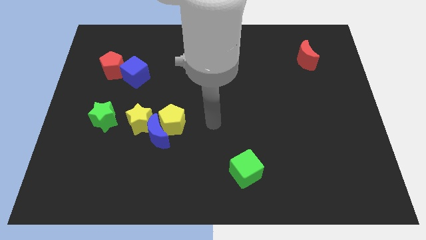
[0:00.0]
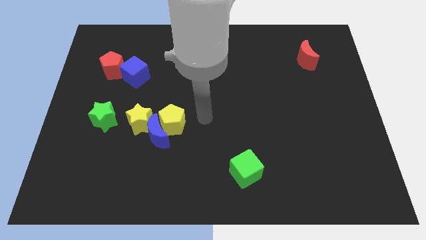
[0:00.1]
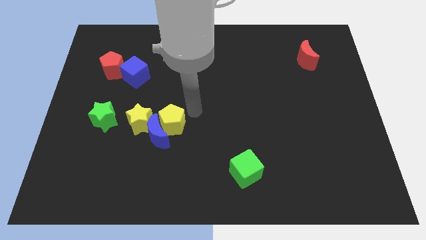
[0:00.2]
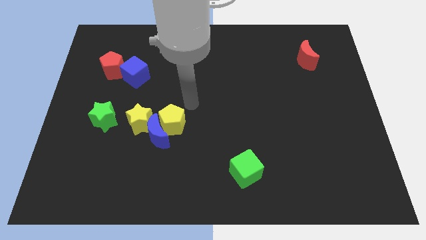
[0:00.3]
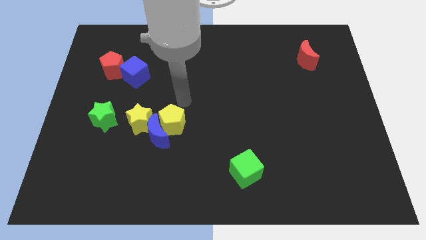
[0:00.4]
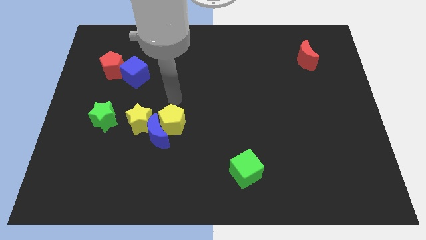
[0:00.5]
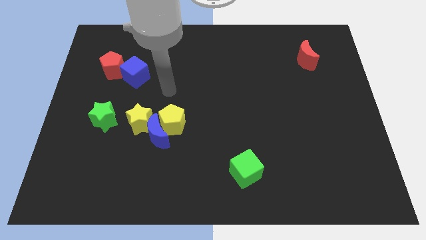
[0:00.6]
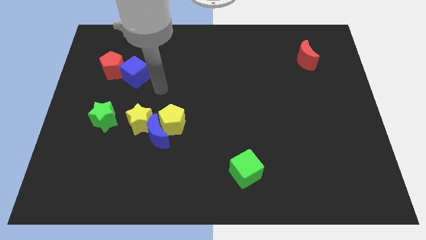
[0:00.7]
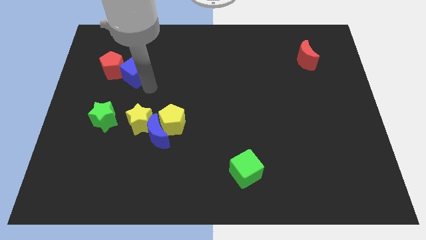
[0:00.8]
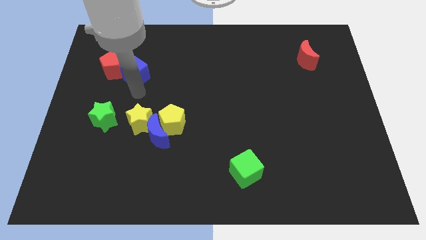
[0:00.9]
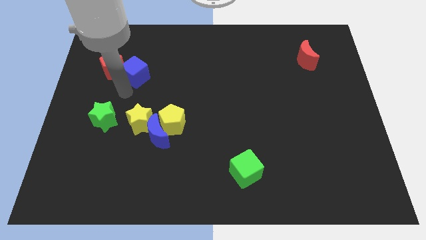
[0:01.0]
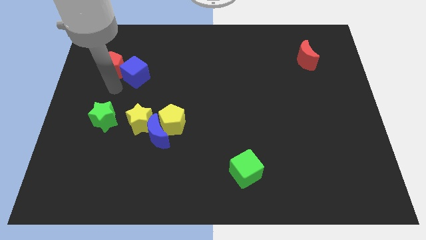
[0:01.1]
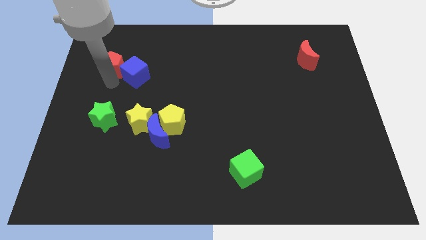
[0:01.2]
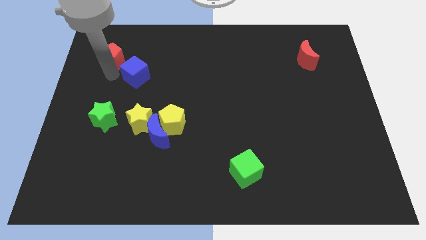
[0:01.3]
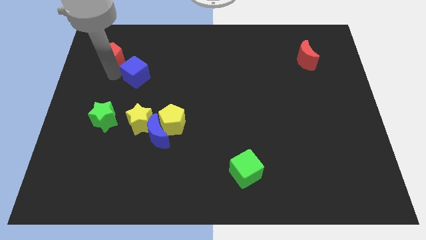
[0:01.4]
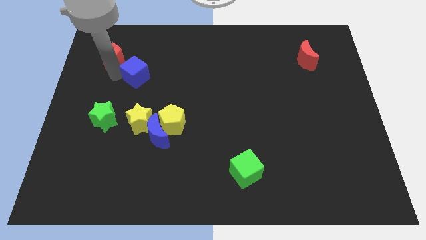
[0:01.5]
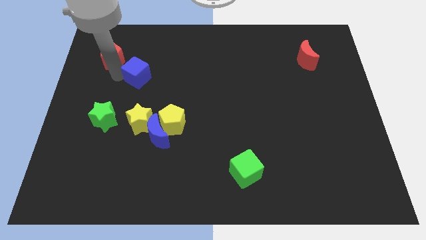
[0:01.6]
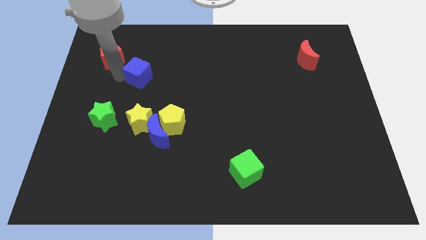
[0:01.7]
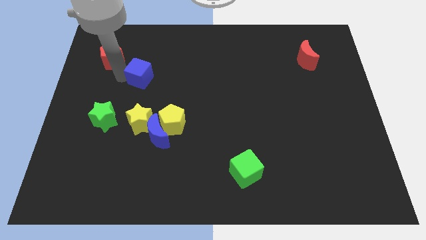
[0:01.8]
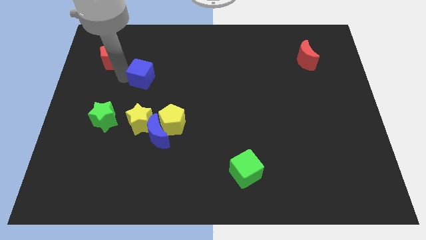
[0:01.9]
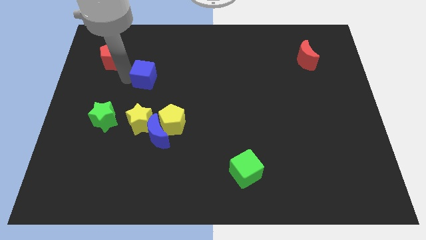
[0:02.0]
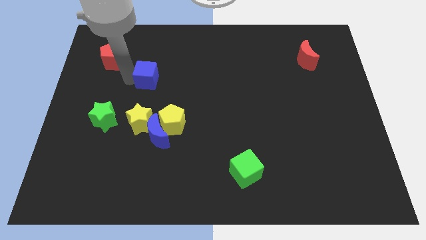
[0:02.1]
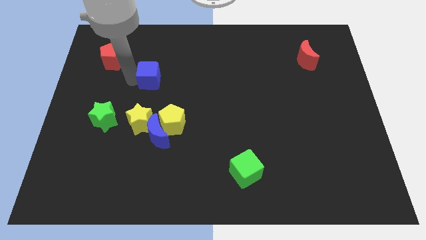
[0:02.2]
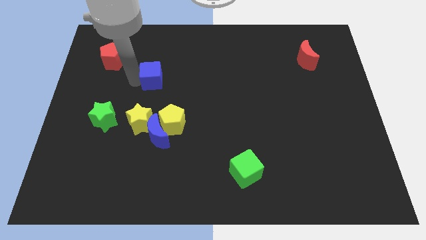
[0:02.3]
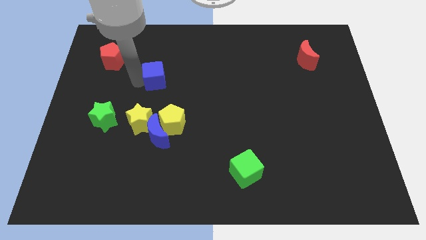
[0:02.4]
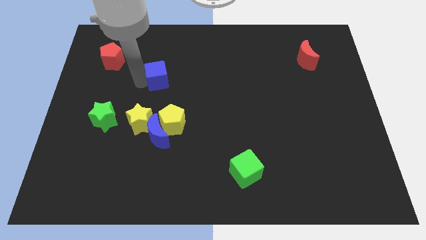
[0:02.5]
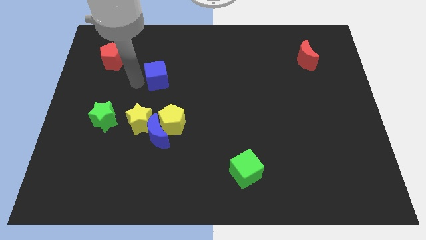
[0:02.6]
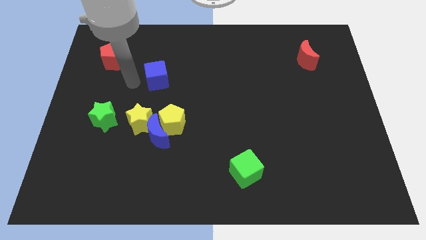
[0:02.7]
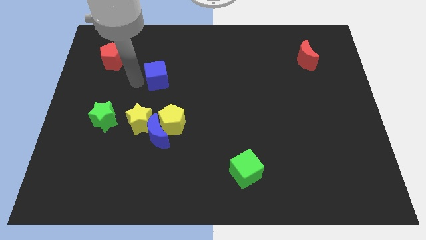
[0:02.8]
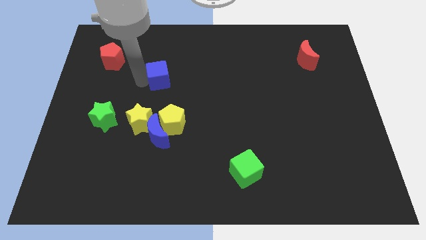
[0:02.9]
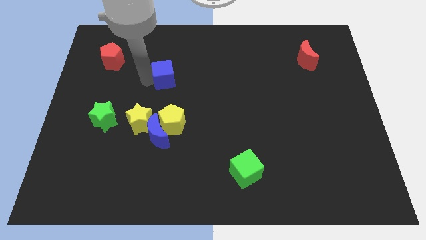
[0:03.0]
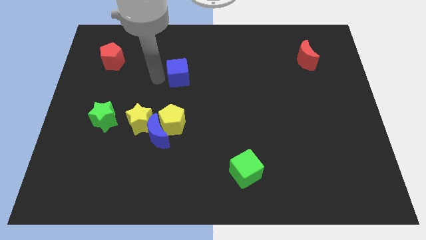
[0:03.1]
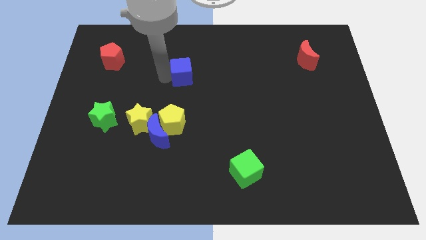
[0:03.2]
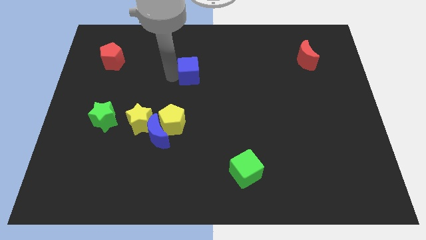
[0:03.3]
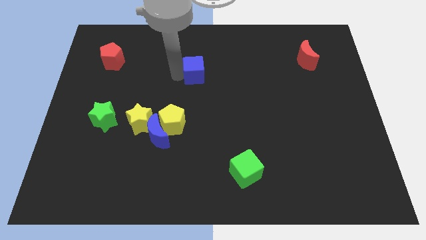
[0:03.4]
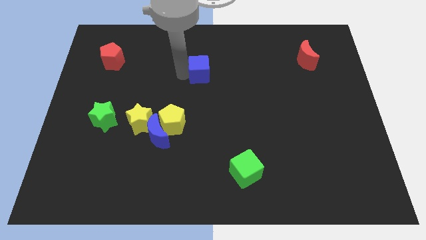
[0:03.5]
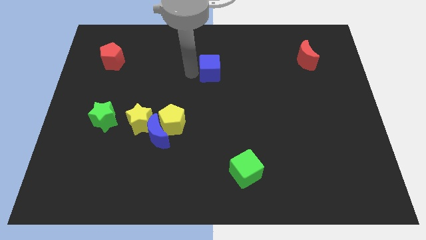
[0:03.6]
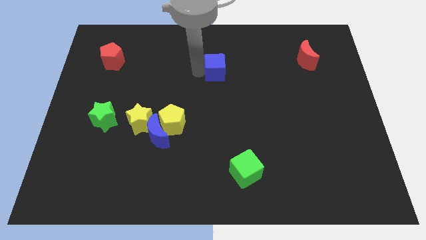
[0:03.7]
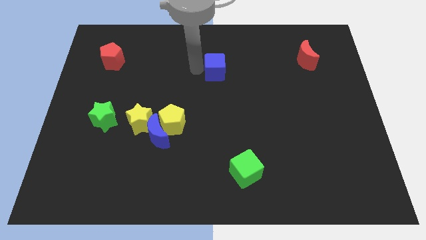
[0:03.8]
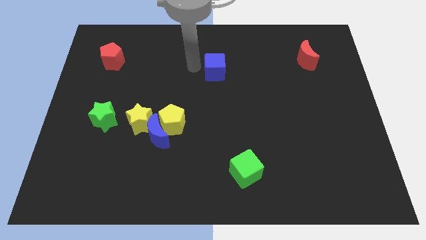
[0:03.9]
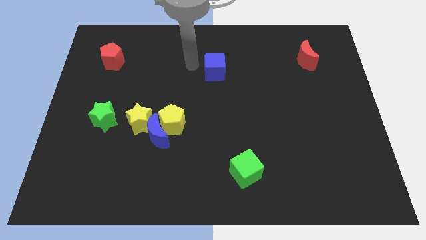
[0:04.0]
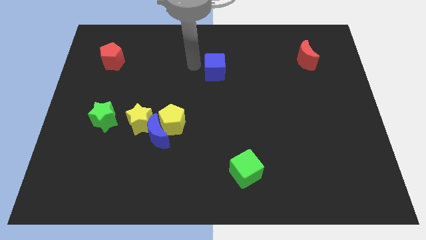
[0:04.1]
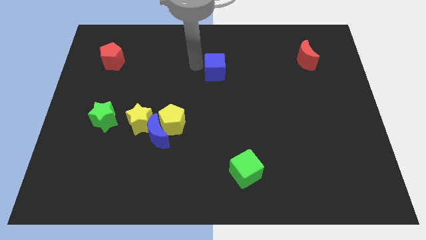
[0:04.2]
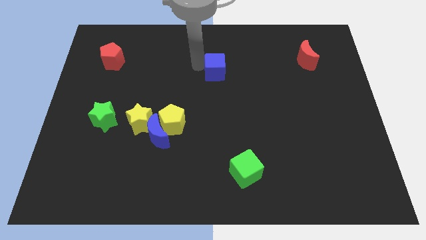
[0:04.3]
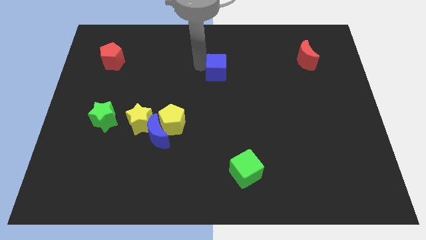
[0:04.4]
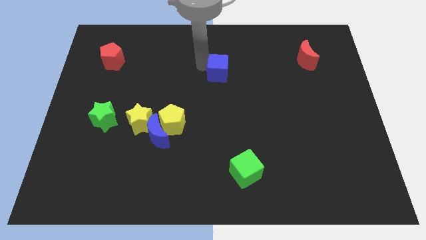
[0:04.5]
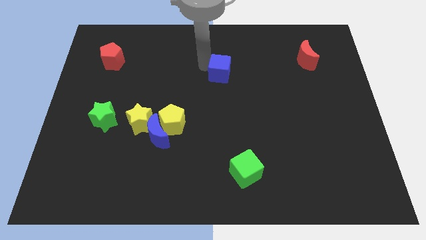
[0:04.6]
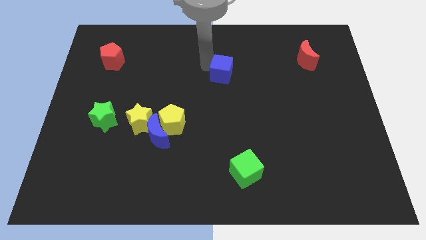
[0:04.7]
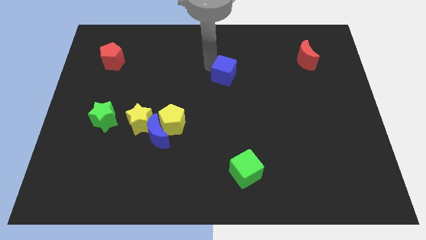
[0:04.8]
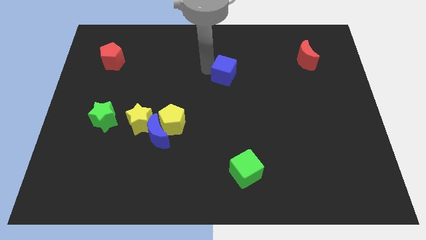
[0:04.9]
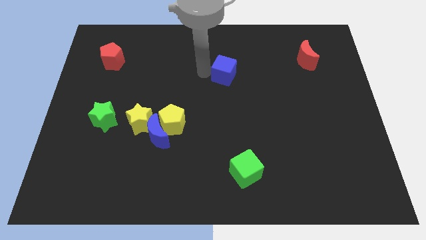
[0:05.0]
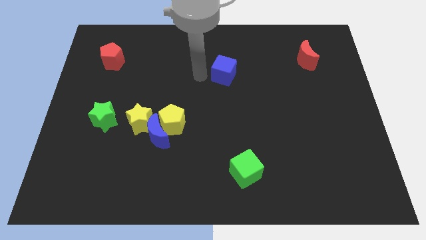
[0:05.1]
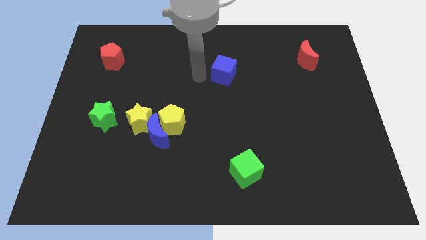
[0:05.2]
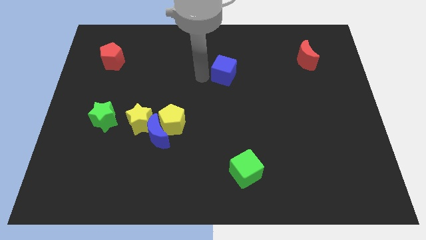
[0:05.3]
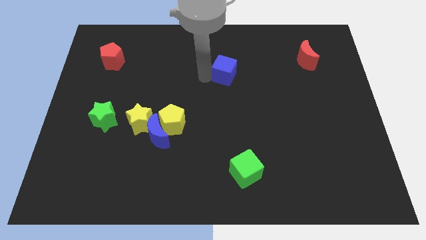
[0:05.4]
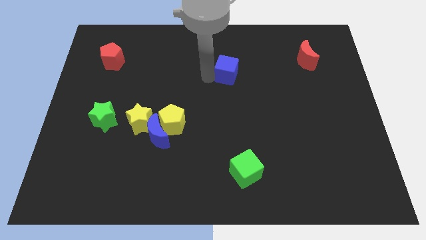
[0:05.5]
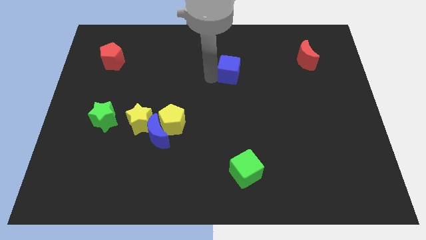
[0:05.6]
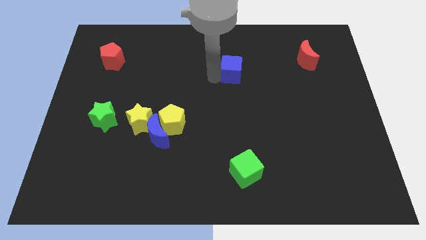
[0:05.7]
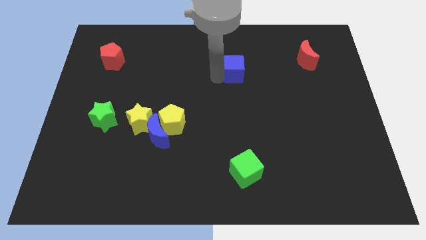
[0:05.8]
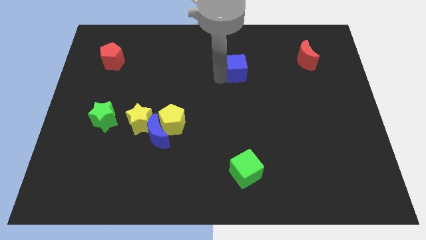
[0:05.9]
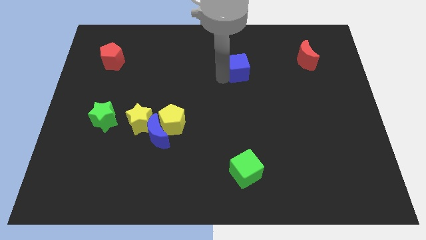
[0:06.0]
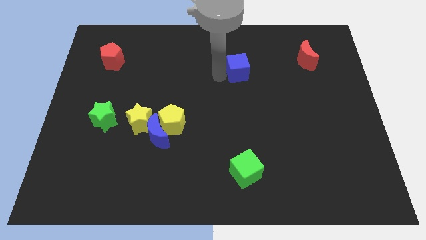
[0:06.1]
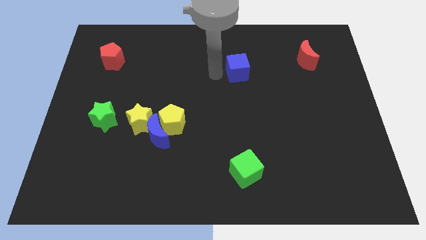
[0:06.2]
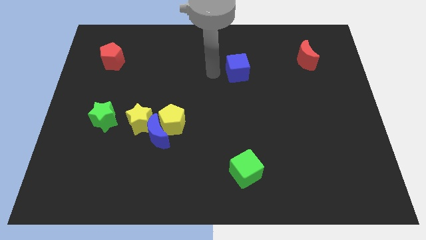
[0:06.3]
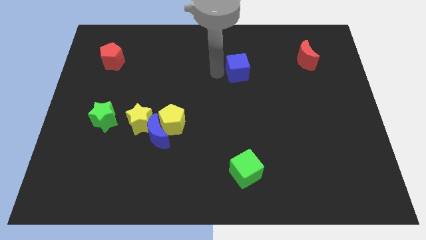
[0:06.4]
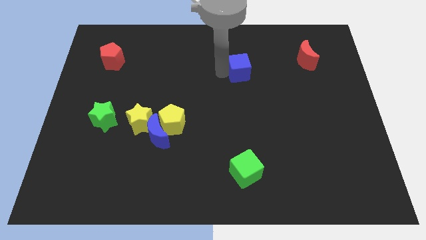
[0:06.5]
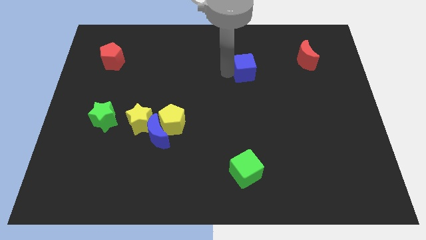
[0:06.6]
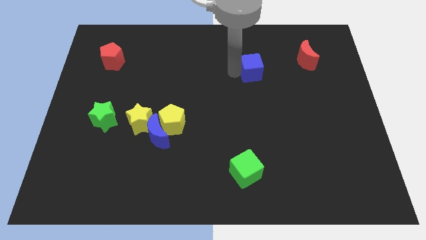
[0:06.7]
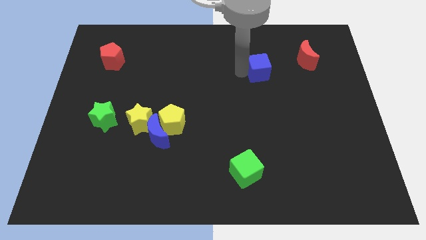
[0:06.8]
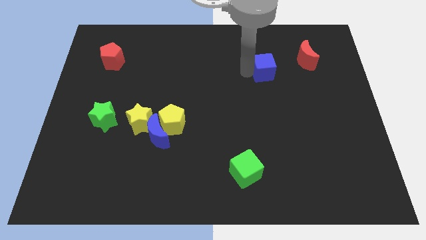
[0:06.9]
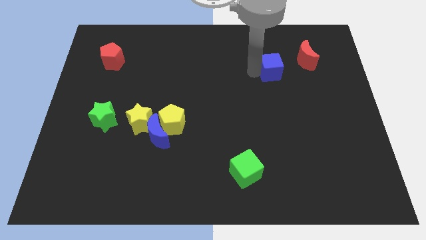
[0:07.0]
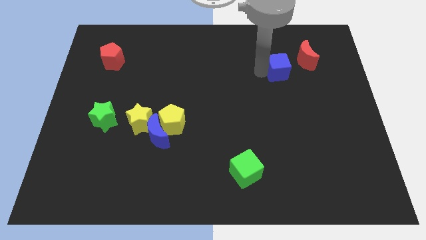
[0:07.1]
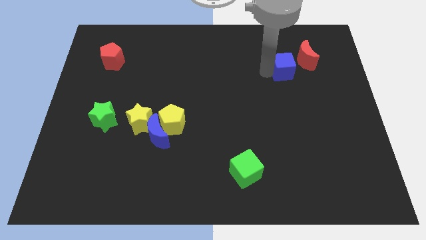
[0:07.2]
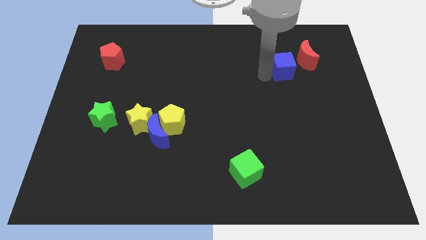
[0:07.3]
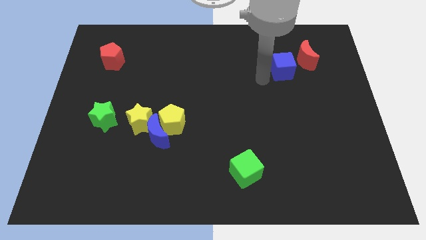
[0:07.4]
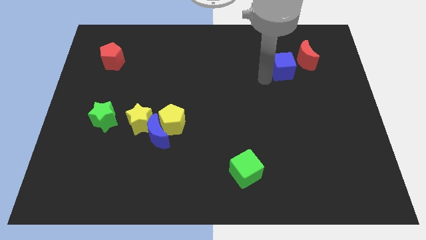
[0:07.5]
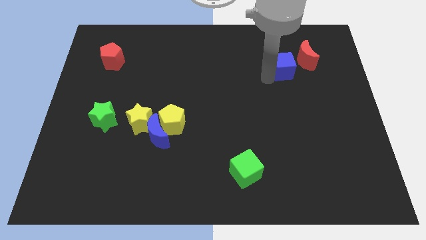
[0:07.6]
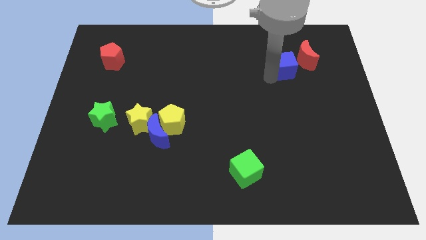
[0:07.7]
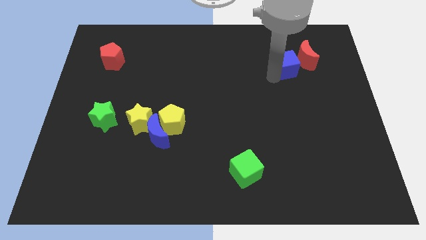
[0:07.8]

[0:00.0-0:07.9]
move the blue cube close to the red moon
